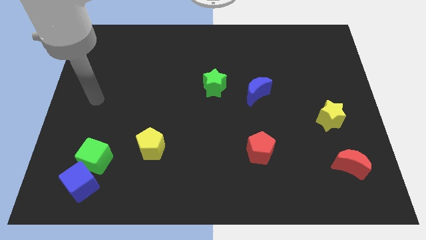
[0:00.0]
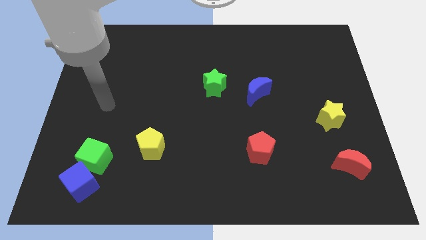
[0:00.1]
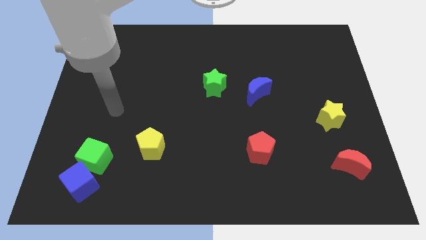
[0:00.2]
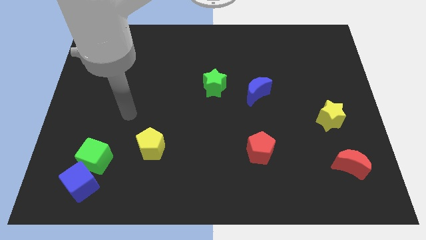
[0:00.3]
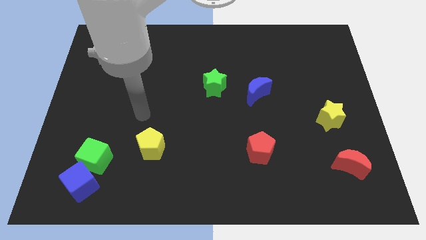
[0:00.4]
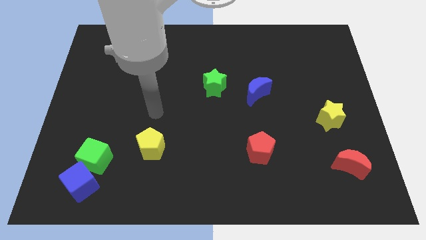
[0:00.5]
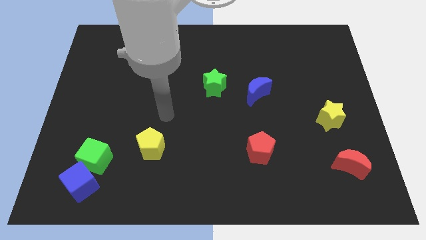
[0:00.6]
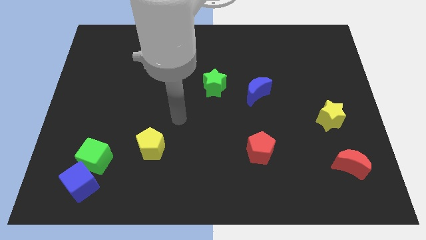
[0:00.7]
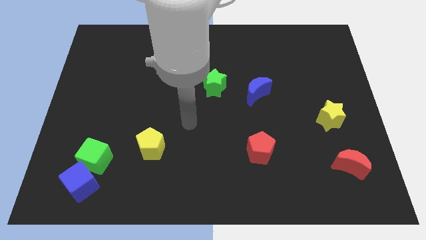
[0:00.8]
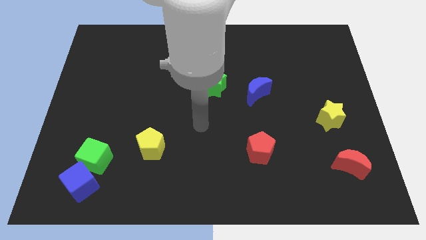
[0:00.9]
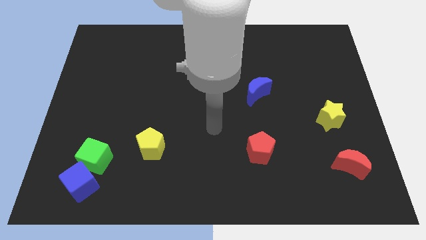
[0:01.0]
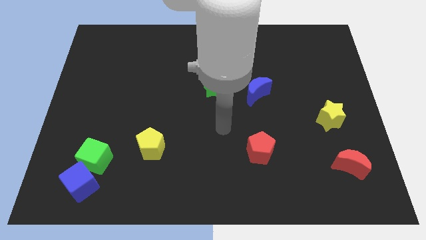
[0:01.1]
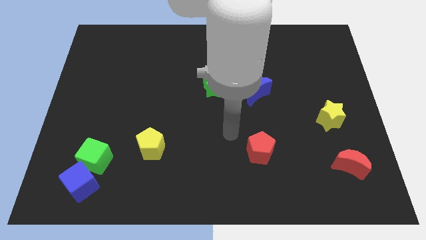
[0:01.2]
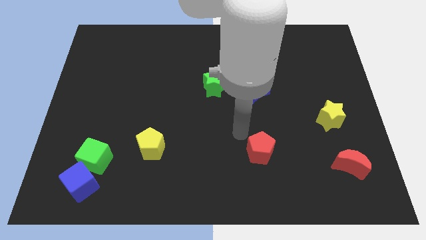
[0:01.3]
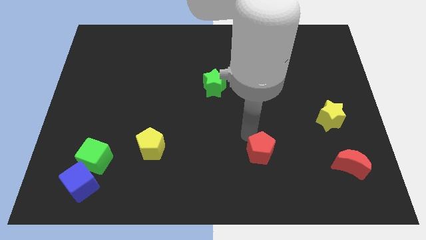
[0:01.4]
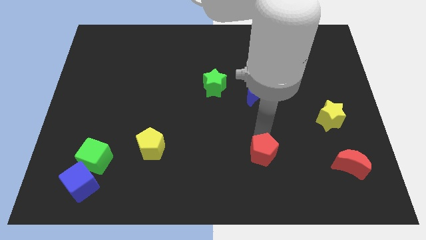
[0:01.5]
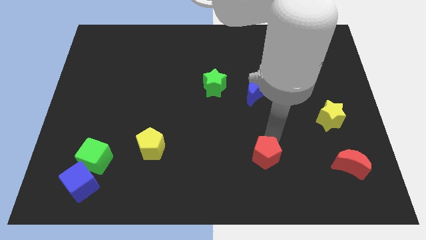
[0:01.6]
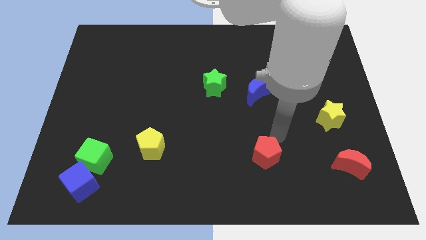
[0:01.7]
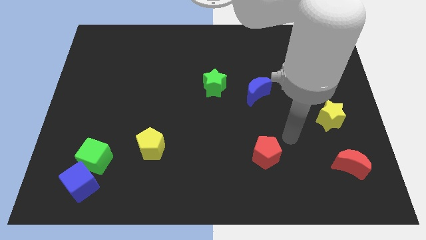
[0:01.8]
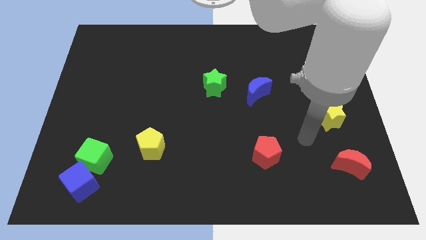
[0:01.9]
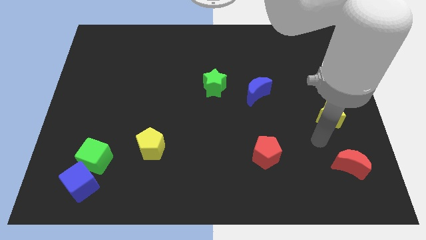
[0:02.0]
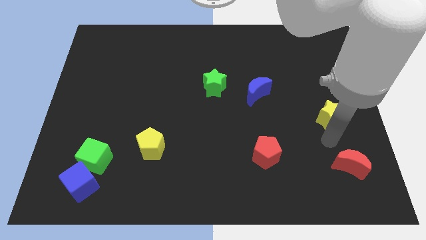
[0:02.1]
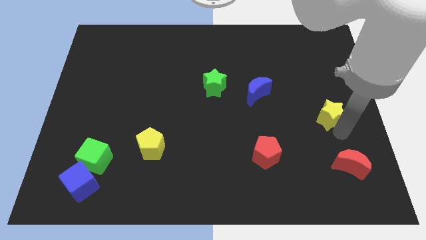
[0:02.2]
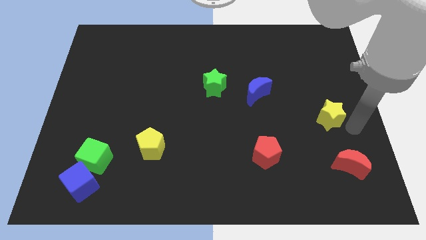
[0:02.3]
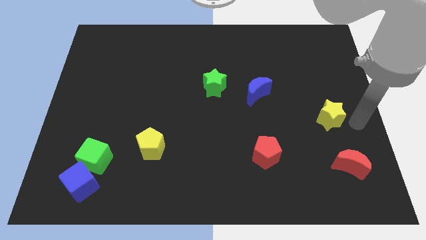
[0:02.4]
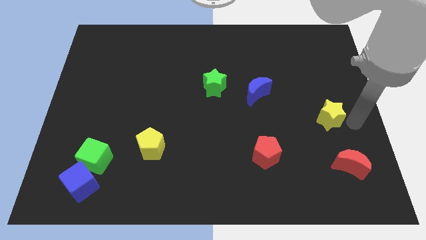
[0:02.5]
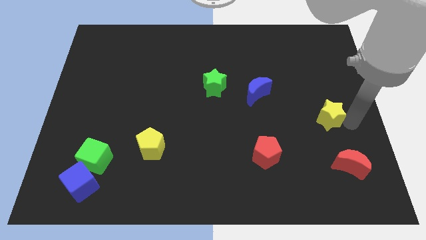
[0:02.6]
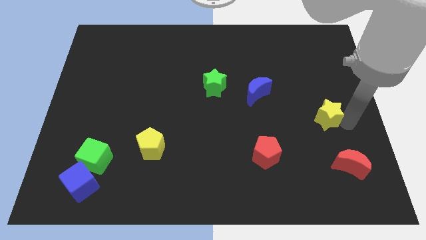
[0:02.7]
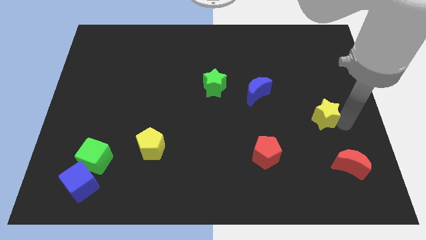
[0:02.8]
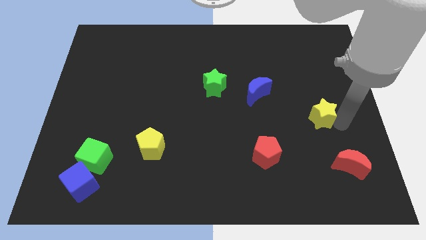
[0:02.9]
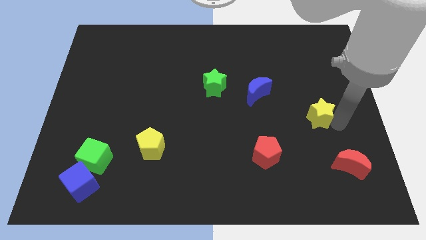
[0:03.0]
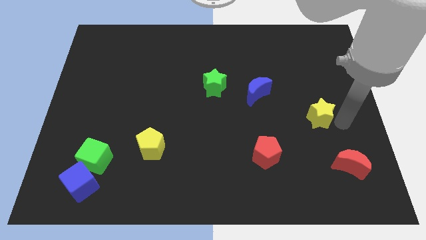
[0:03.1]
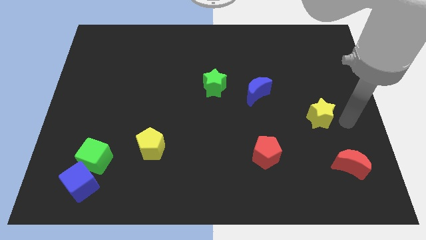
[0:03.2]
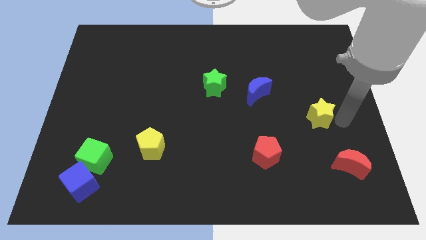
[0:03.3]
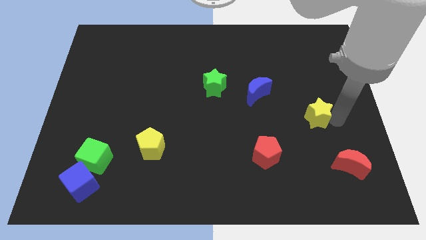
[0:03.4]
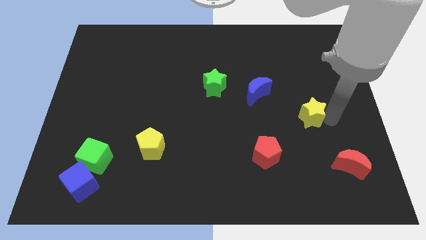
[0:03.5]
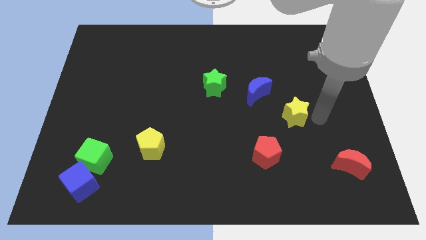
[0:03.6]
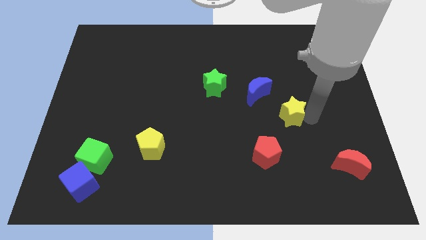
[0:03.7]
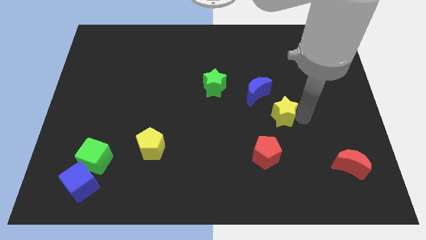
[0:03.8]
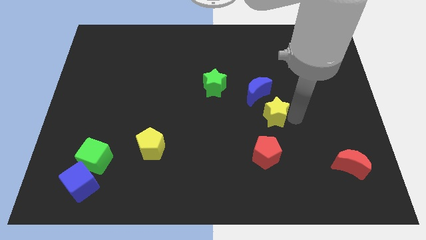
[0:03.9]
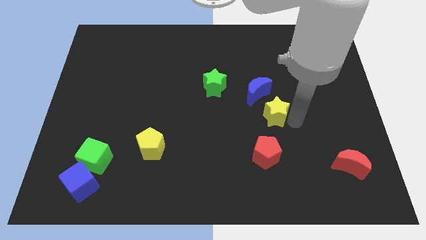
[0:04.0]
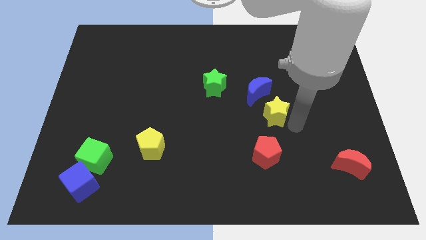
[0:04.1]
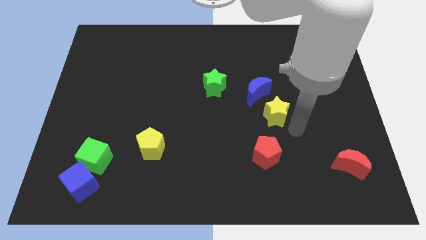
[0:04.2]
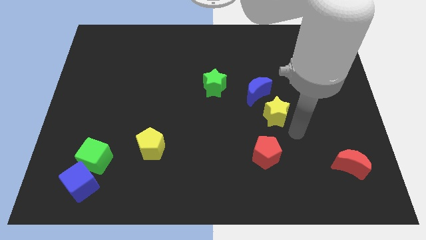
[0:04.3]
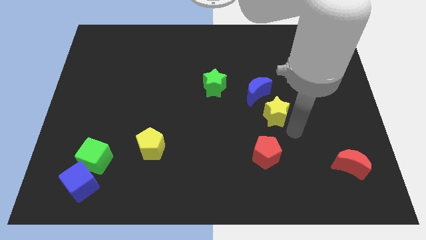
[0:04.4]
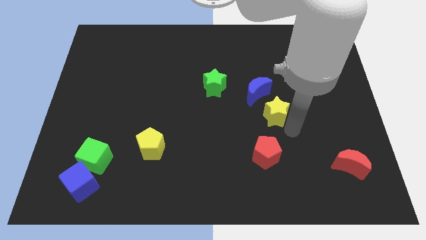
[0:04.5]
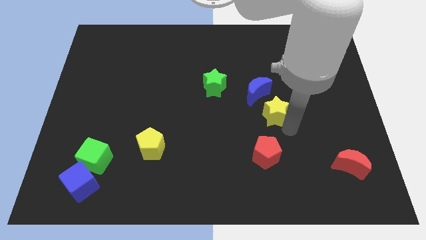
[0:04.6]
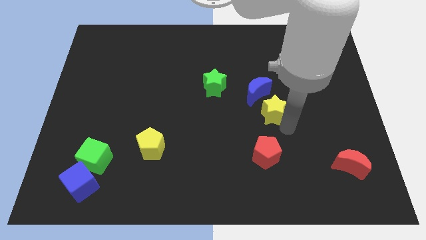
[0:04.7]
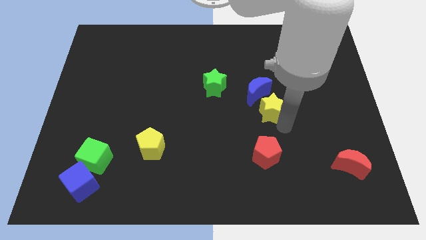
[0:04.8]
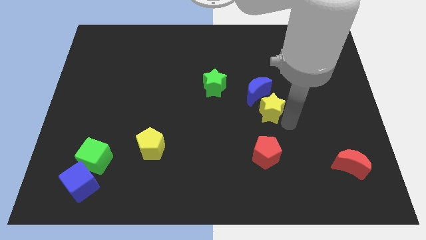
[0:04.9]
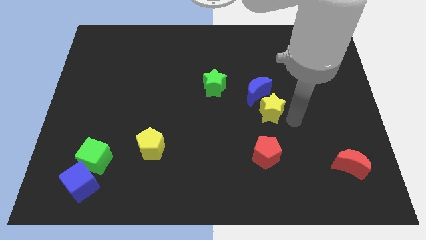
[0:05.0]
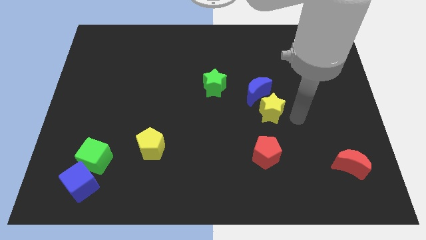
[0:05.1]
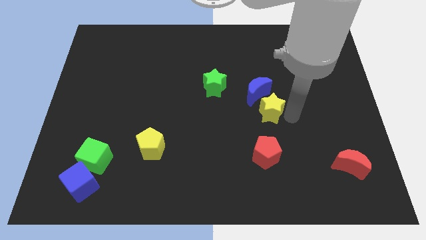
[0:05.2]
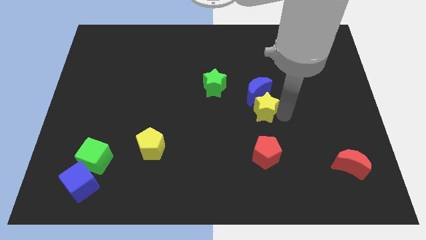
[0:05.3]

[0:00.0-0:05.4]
slide the yellow star to the center

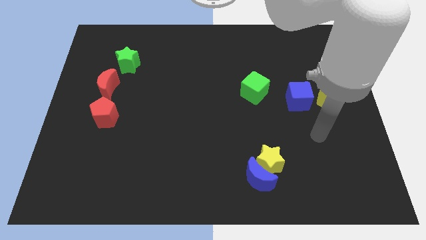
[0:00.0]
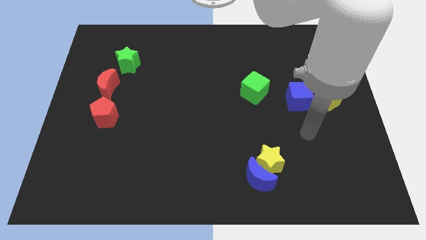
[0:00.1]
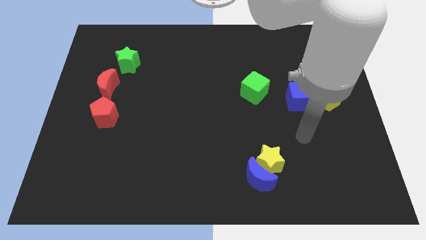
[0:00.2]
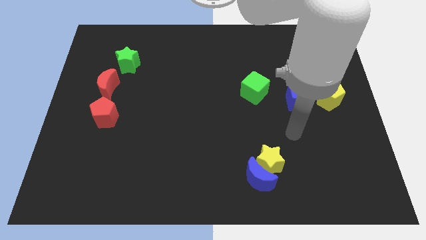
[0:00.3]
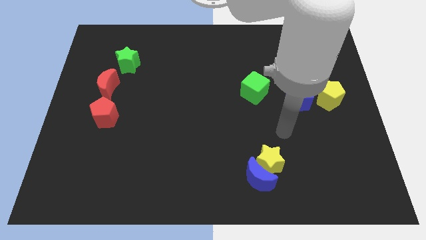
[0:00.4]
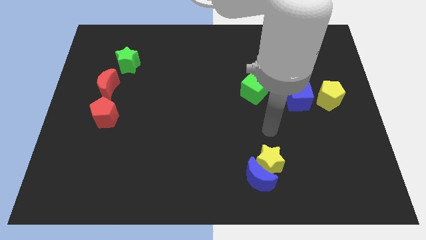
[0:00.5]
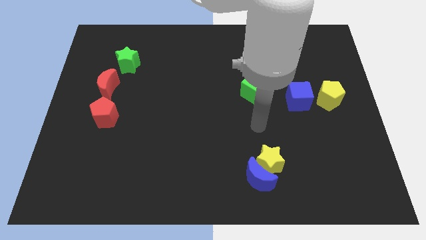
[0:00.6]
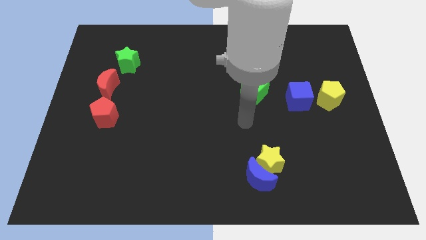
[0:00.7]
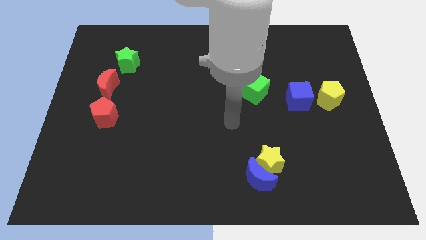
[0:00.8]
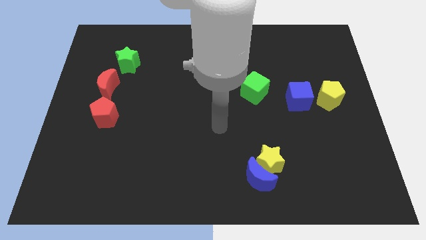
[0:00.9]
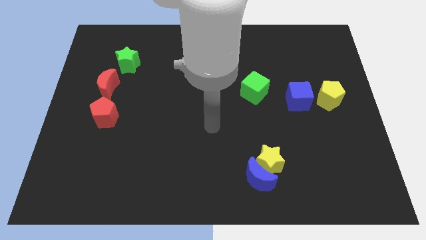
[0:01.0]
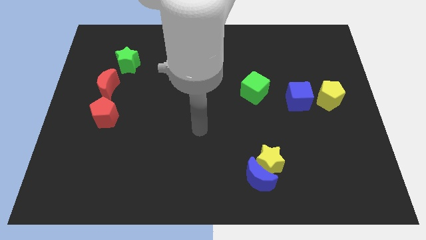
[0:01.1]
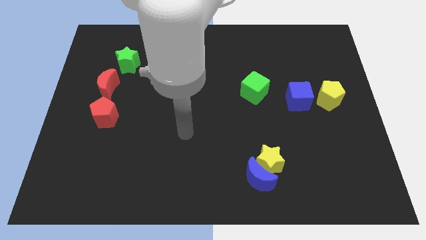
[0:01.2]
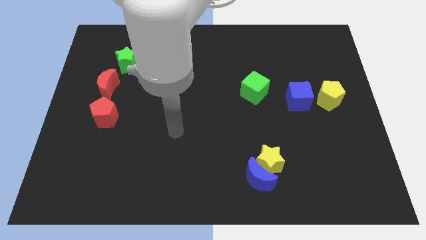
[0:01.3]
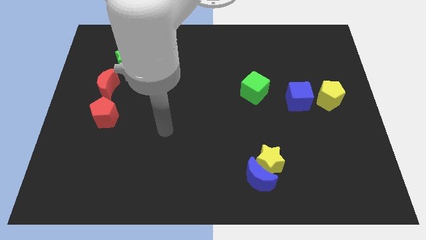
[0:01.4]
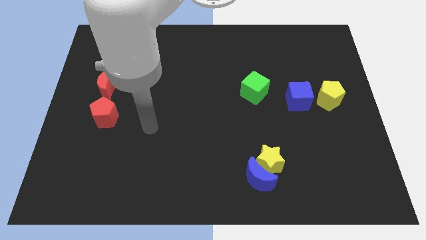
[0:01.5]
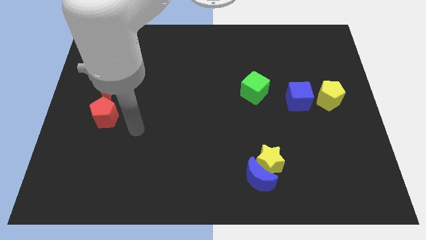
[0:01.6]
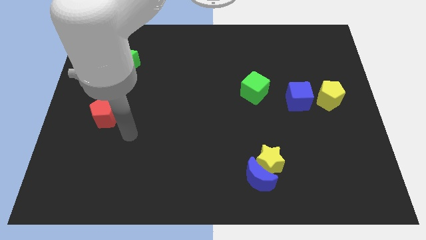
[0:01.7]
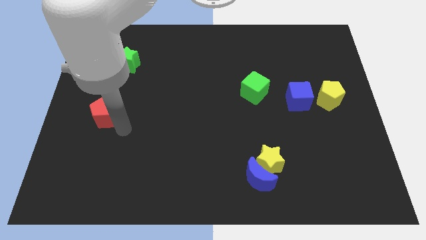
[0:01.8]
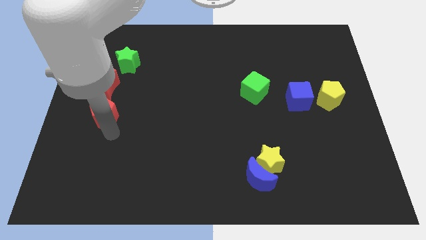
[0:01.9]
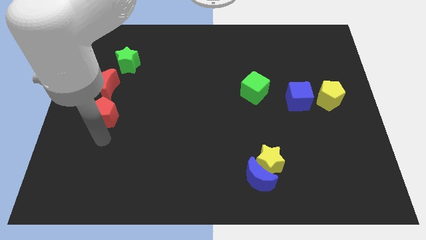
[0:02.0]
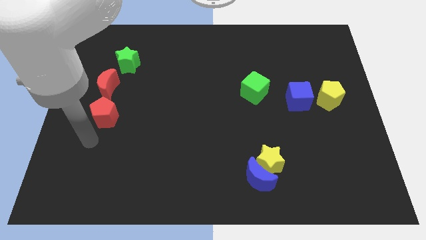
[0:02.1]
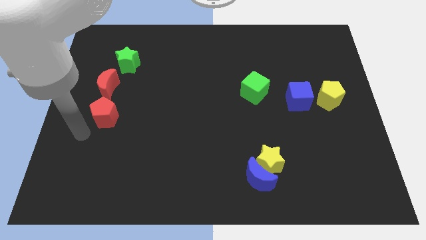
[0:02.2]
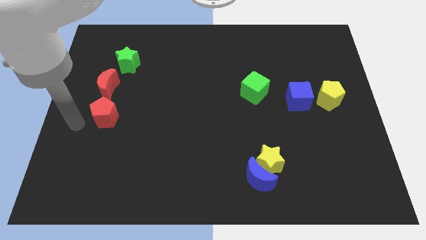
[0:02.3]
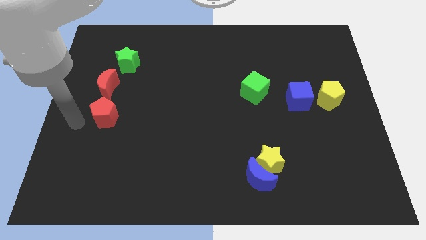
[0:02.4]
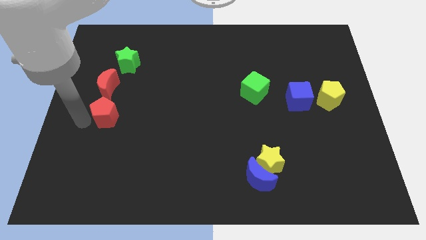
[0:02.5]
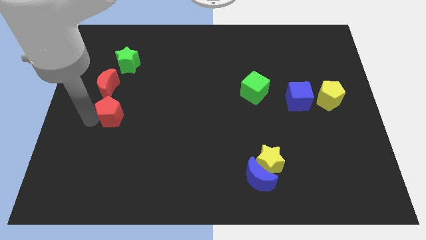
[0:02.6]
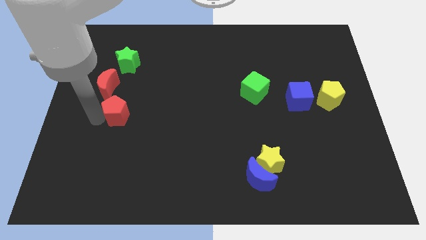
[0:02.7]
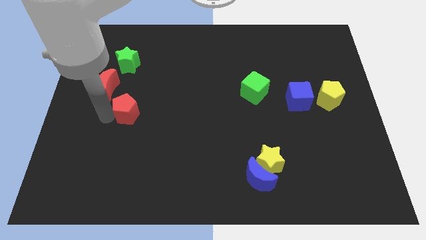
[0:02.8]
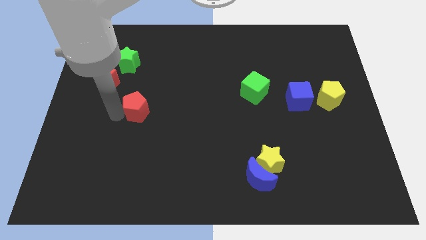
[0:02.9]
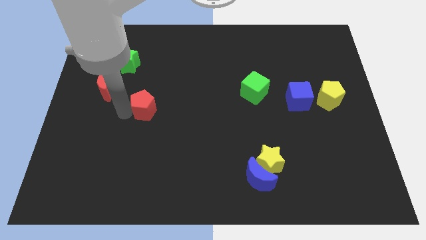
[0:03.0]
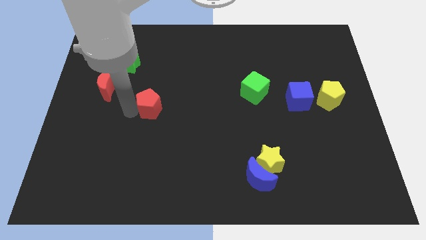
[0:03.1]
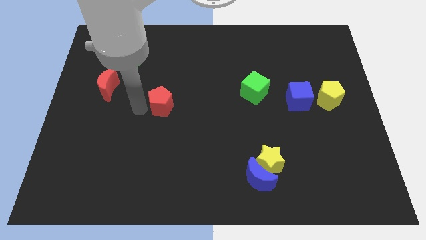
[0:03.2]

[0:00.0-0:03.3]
put the red pentagon to the middle of the board
